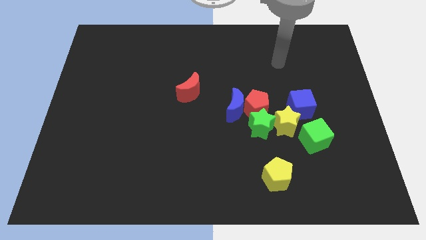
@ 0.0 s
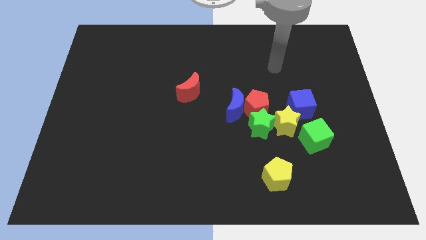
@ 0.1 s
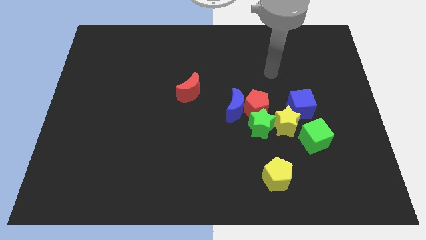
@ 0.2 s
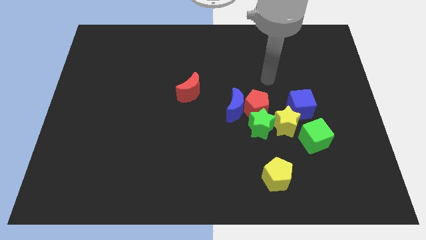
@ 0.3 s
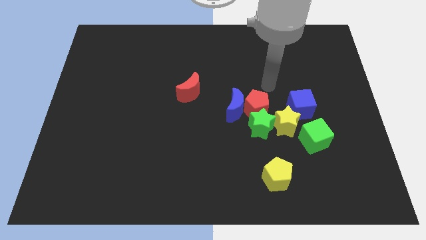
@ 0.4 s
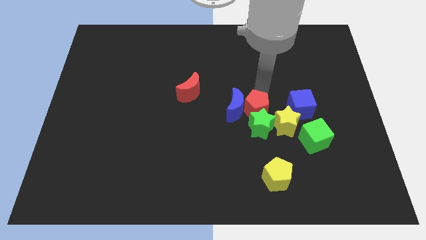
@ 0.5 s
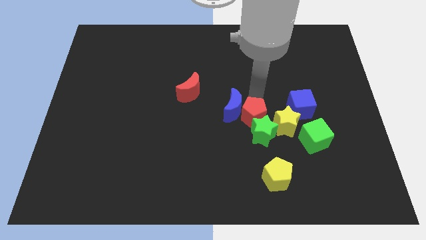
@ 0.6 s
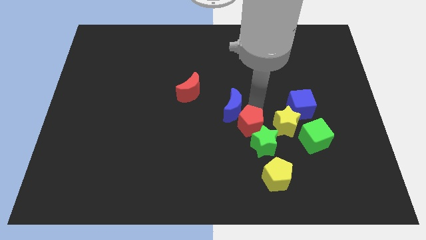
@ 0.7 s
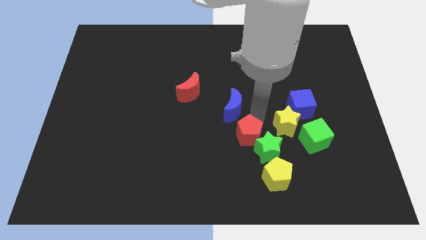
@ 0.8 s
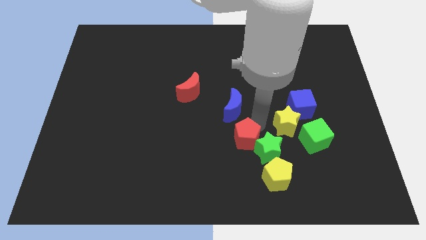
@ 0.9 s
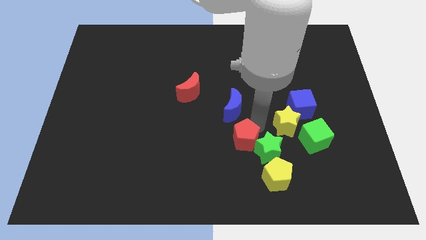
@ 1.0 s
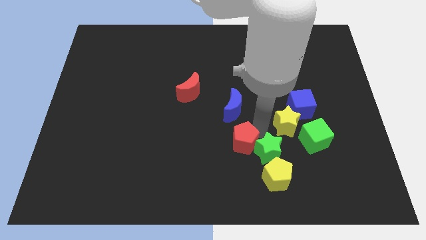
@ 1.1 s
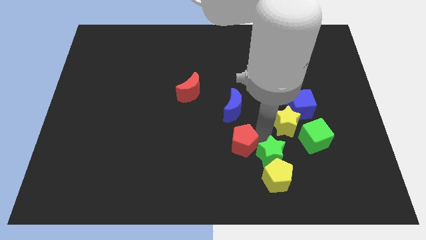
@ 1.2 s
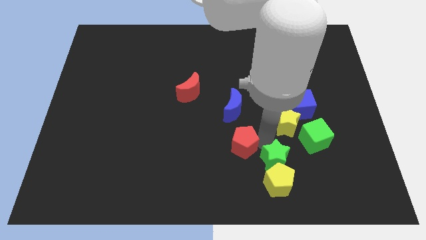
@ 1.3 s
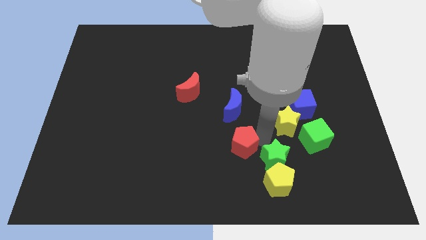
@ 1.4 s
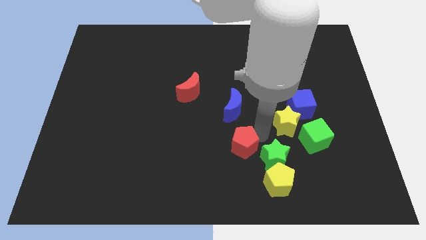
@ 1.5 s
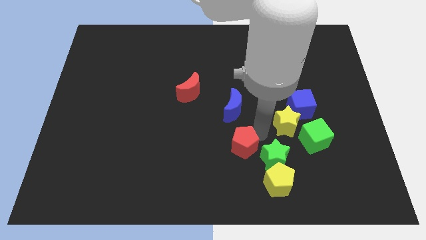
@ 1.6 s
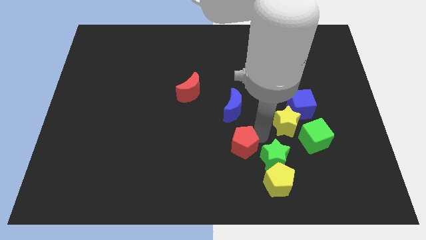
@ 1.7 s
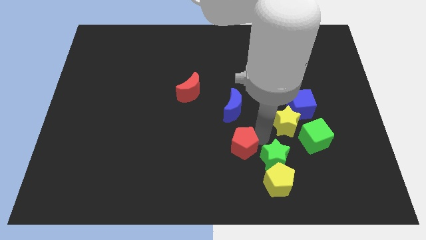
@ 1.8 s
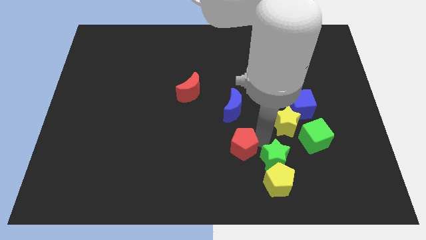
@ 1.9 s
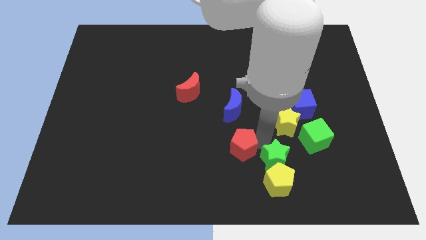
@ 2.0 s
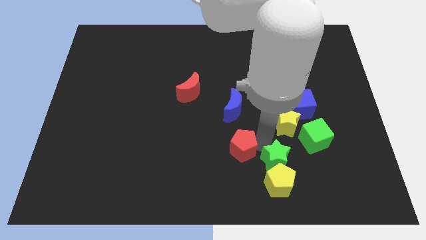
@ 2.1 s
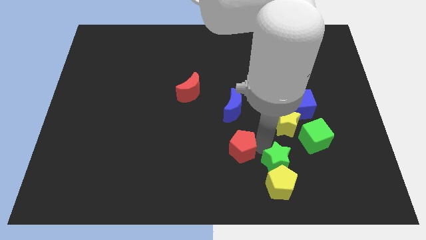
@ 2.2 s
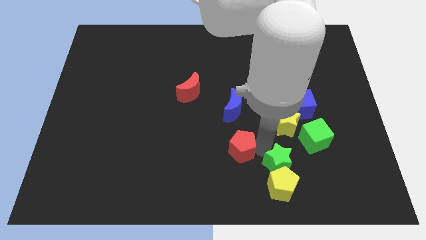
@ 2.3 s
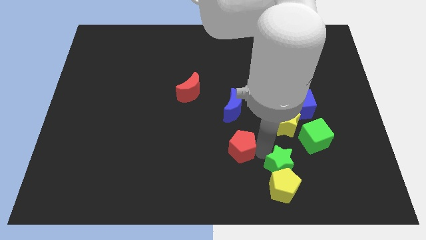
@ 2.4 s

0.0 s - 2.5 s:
move the green star away from the red pentagon, yellow star, and blue moon

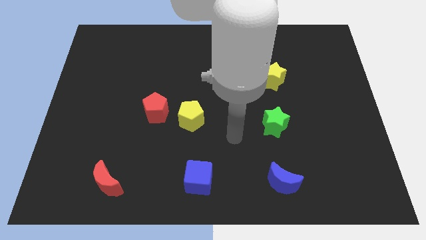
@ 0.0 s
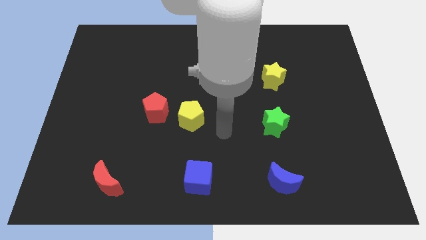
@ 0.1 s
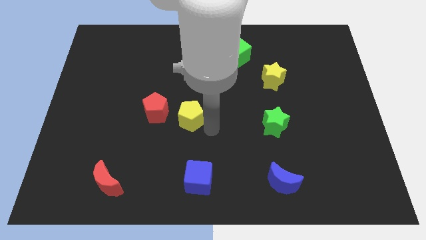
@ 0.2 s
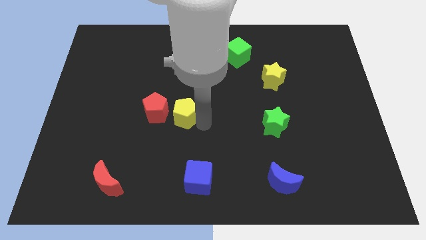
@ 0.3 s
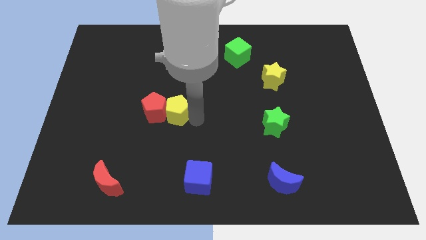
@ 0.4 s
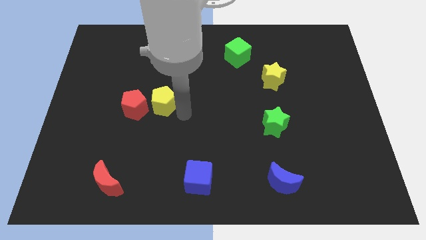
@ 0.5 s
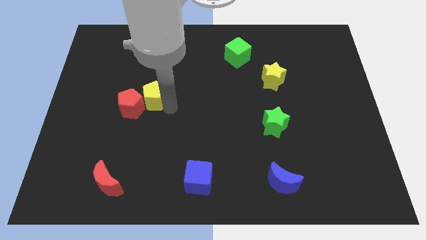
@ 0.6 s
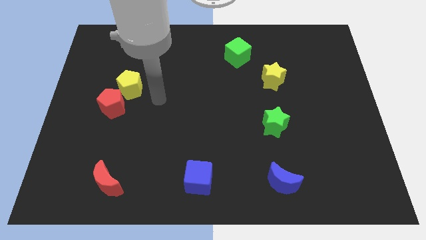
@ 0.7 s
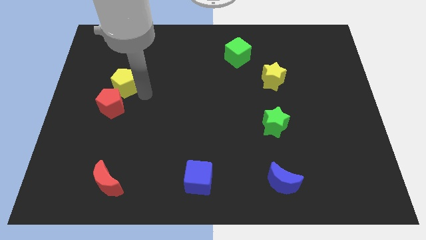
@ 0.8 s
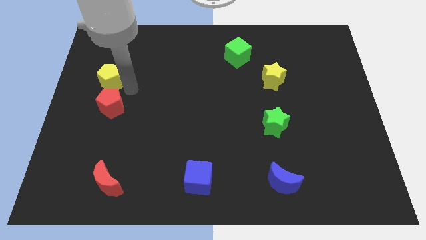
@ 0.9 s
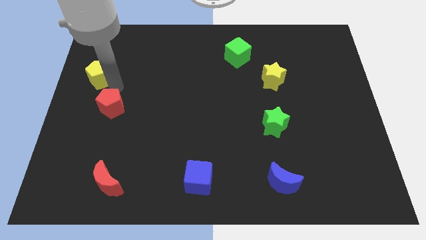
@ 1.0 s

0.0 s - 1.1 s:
separate the red pentagon from the yellow pentagon

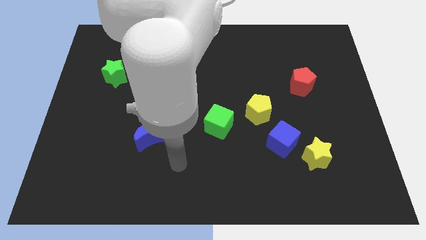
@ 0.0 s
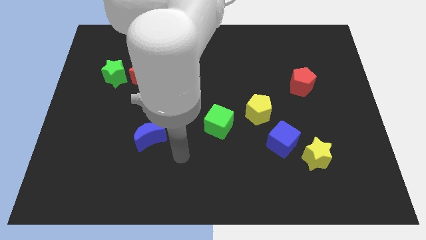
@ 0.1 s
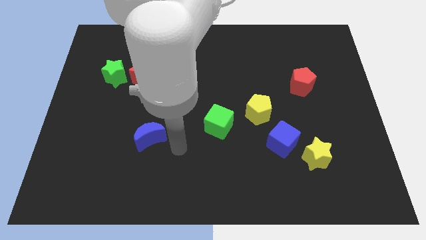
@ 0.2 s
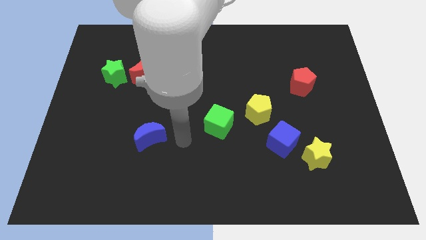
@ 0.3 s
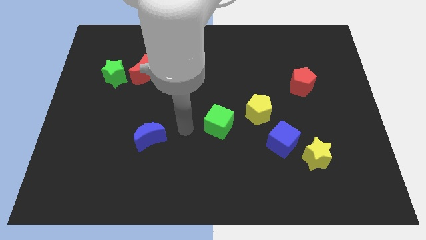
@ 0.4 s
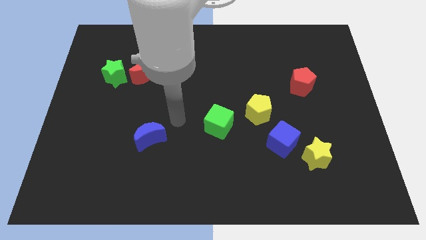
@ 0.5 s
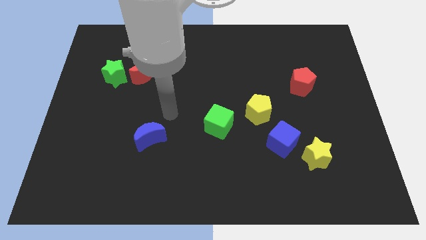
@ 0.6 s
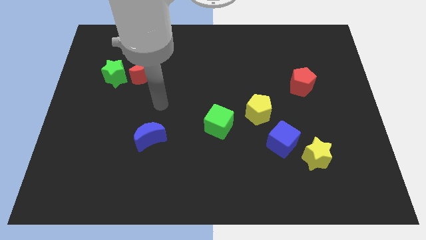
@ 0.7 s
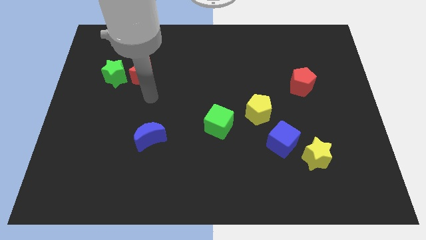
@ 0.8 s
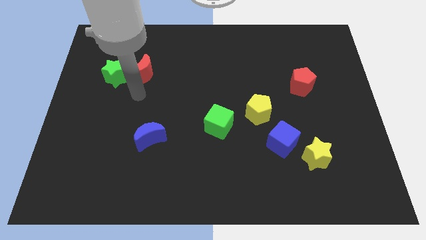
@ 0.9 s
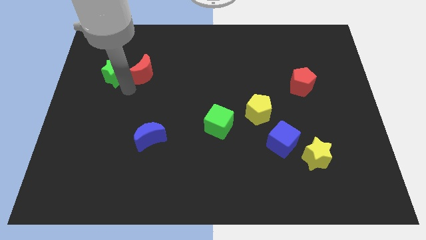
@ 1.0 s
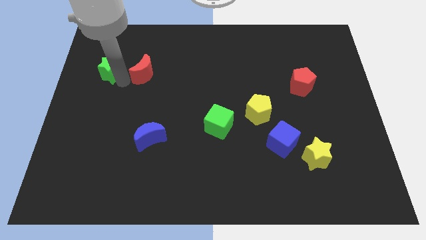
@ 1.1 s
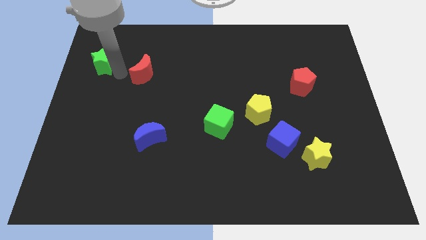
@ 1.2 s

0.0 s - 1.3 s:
separate the red moon from the green star

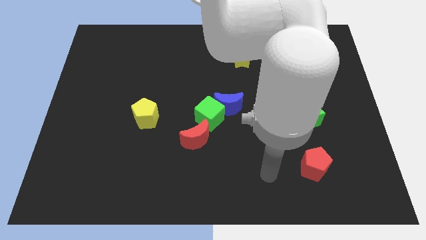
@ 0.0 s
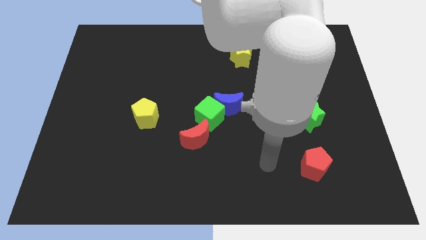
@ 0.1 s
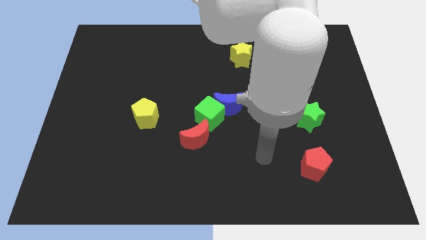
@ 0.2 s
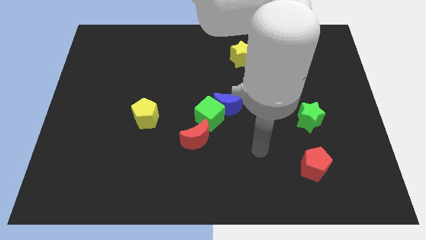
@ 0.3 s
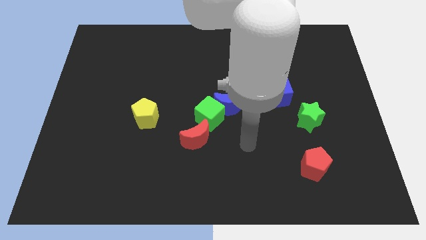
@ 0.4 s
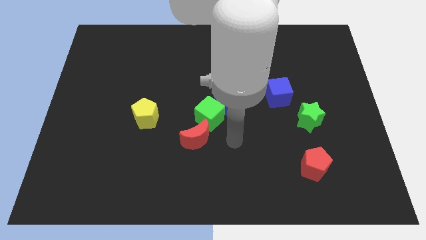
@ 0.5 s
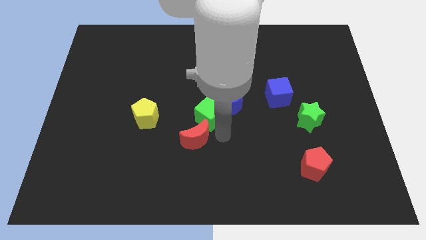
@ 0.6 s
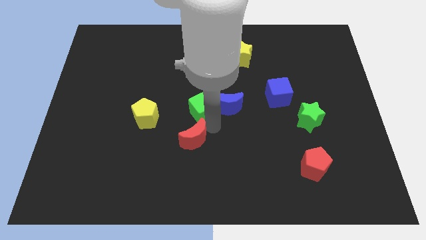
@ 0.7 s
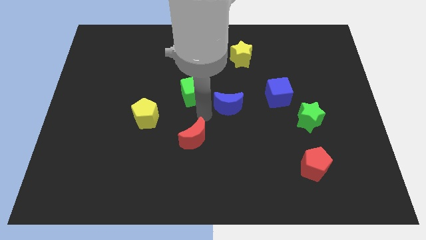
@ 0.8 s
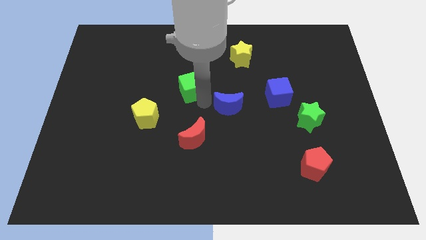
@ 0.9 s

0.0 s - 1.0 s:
separate the blue moon from the green cube

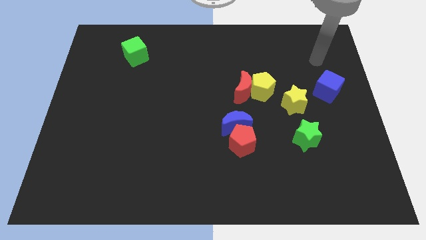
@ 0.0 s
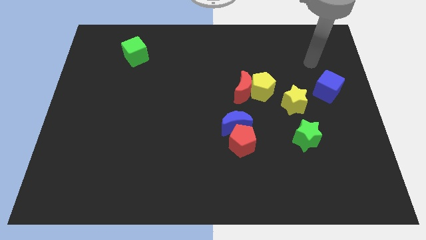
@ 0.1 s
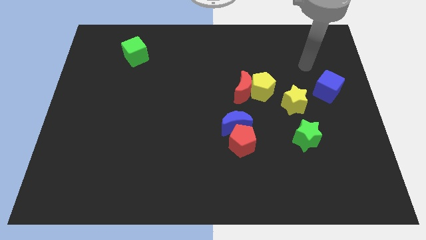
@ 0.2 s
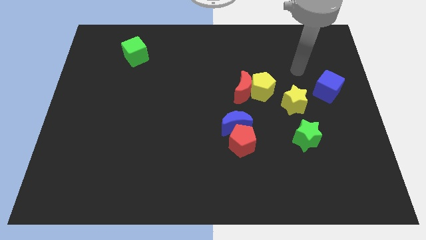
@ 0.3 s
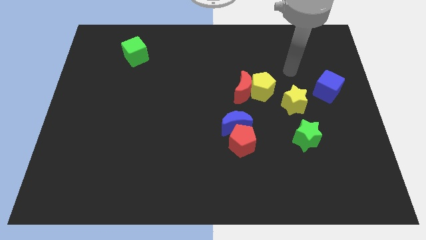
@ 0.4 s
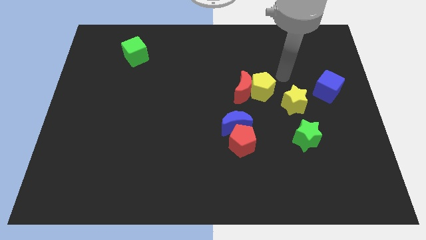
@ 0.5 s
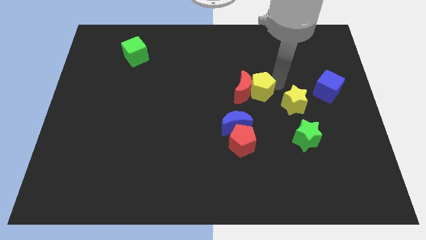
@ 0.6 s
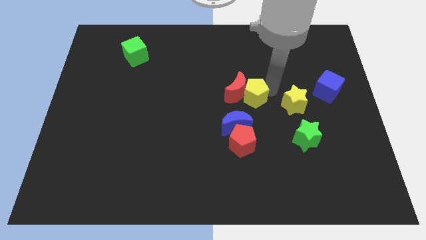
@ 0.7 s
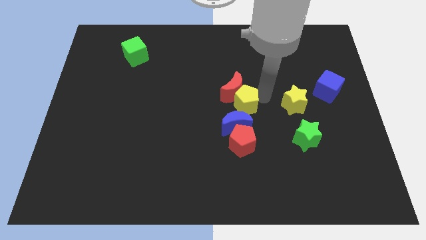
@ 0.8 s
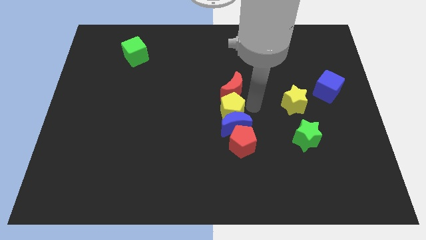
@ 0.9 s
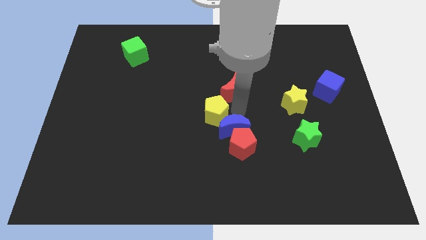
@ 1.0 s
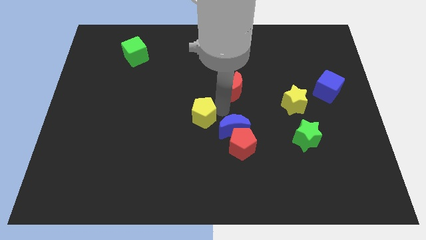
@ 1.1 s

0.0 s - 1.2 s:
move the red moon away from the yellow pentagon

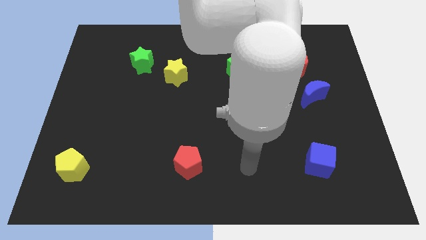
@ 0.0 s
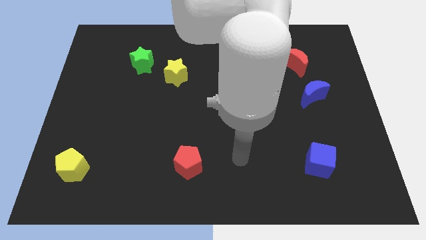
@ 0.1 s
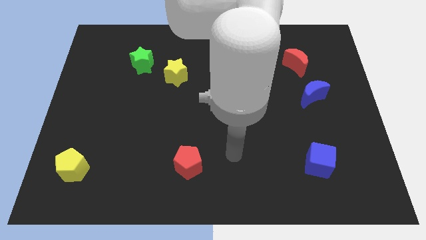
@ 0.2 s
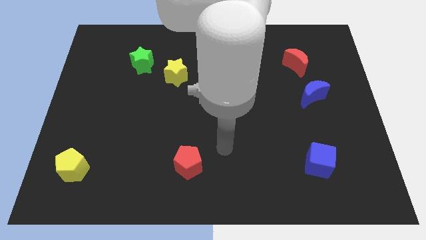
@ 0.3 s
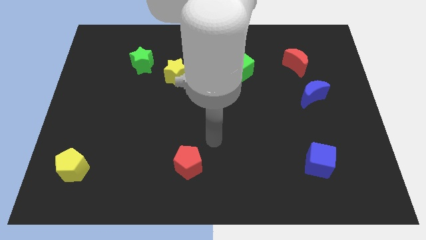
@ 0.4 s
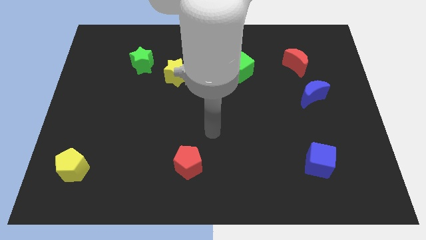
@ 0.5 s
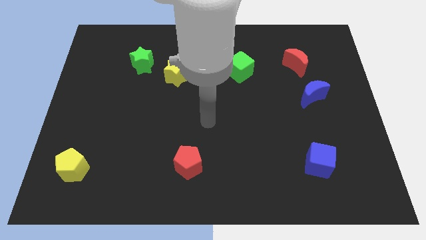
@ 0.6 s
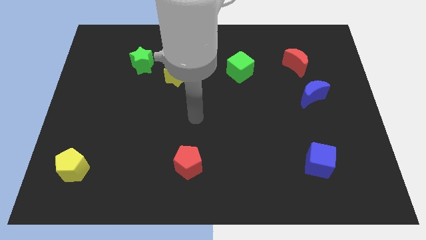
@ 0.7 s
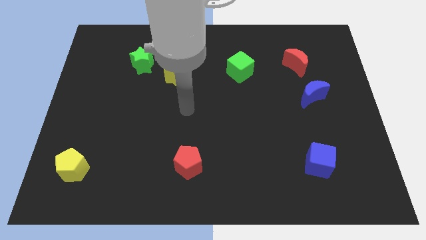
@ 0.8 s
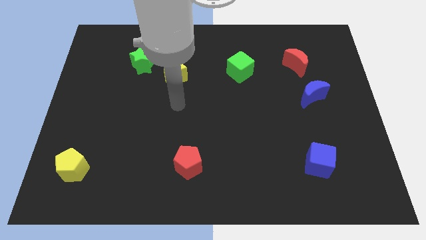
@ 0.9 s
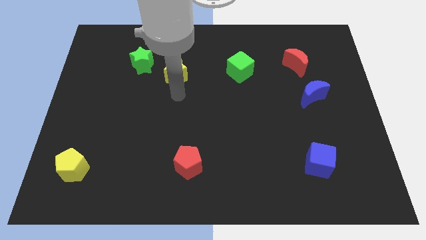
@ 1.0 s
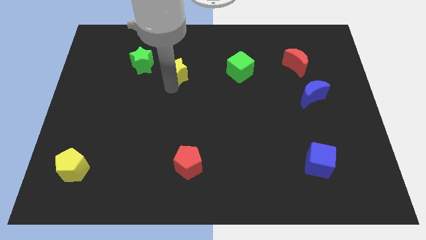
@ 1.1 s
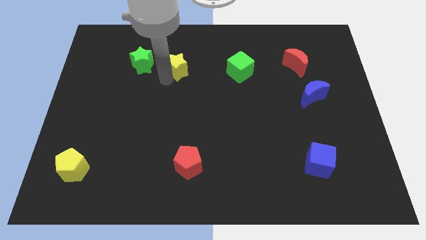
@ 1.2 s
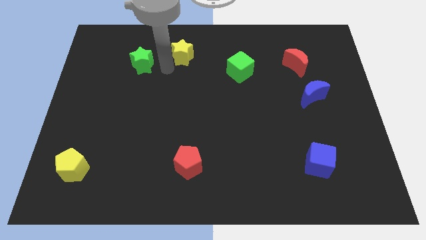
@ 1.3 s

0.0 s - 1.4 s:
pull the green star apart from the yellow star

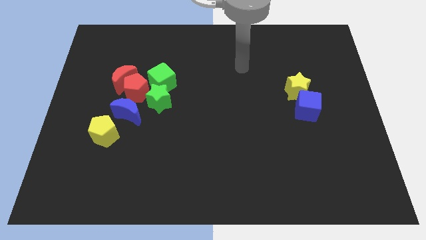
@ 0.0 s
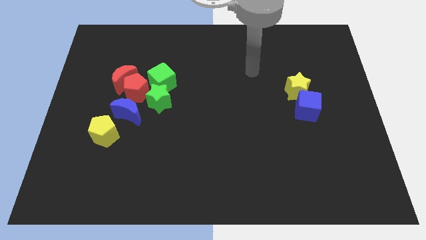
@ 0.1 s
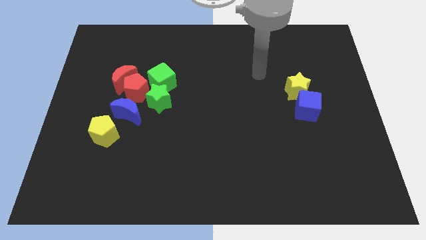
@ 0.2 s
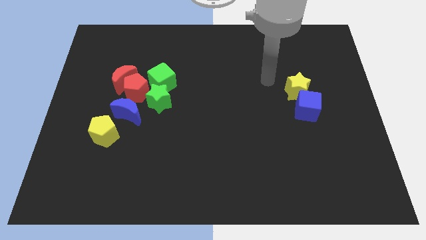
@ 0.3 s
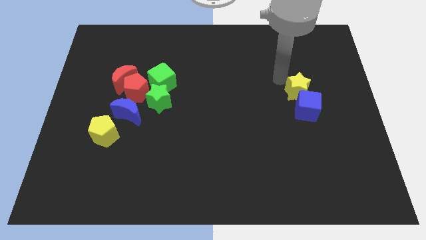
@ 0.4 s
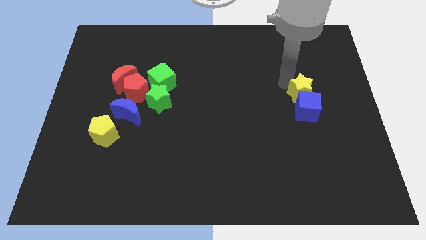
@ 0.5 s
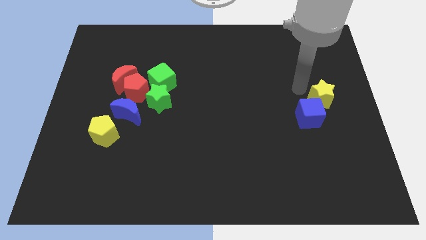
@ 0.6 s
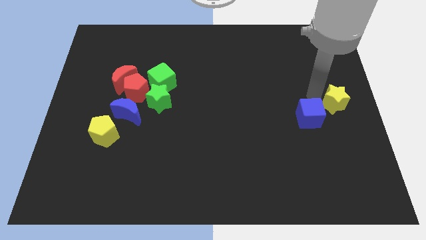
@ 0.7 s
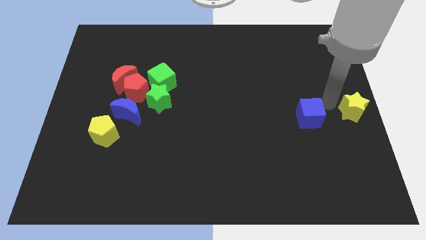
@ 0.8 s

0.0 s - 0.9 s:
separate the blue cube from the yellow star
